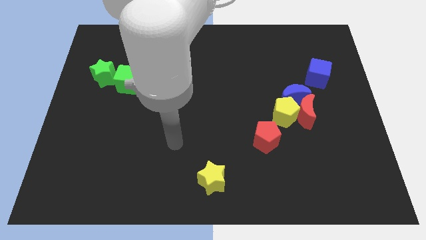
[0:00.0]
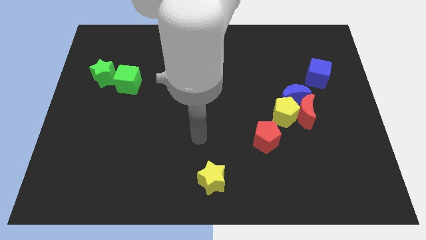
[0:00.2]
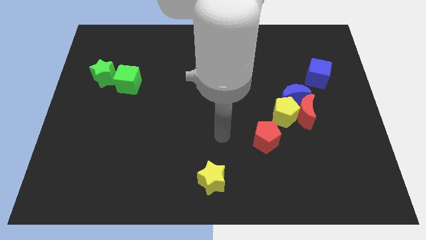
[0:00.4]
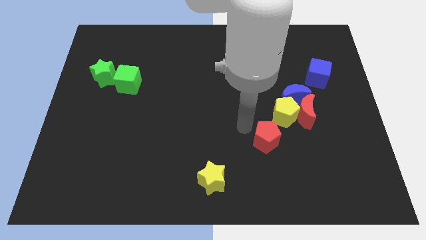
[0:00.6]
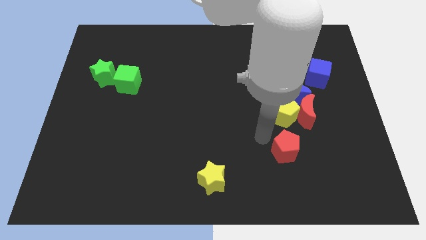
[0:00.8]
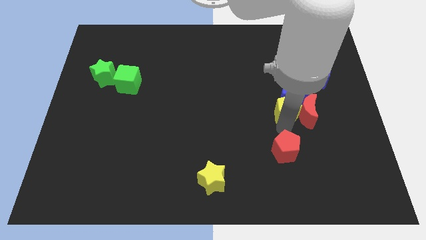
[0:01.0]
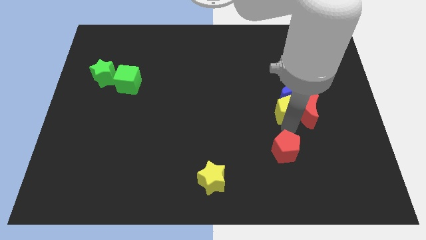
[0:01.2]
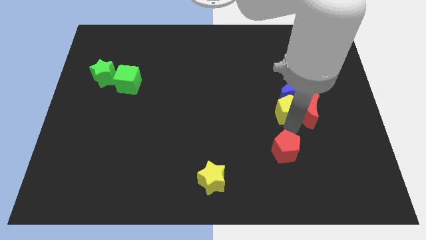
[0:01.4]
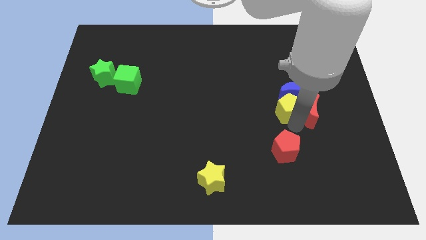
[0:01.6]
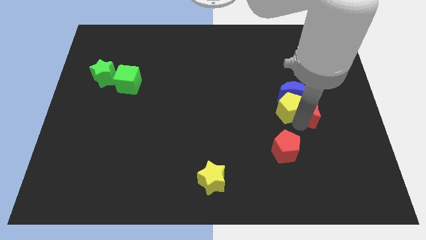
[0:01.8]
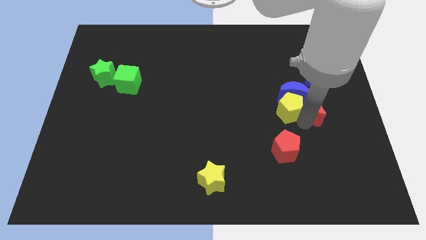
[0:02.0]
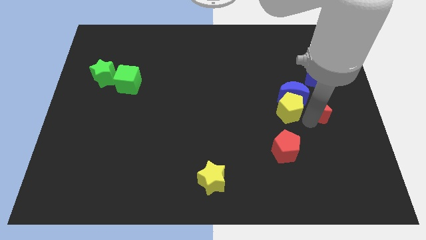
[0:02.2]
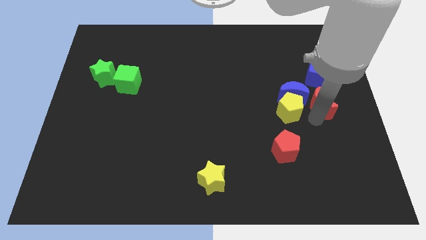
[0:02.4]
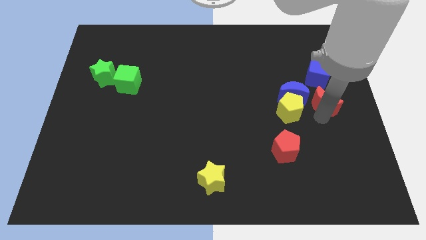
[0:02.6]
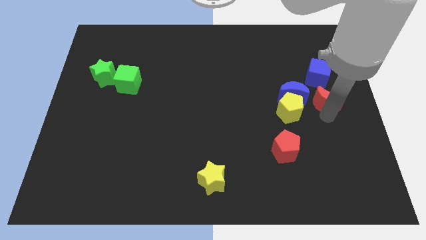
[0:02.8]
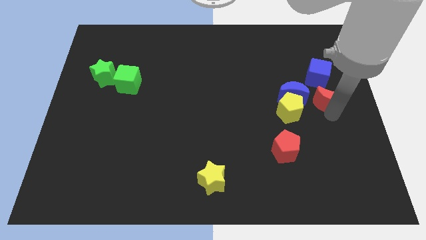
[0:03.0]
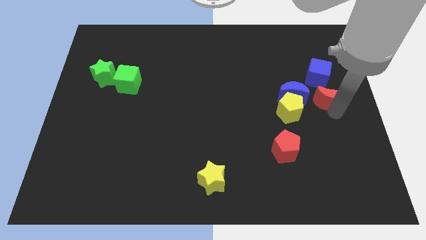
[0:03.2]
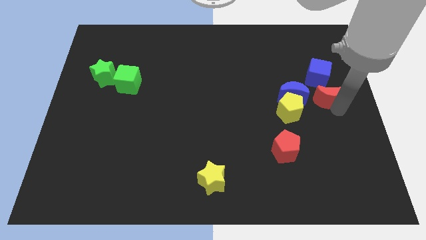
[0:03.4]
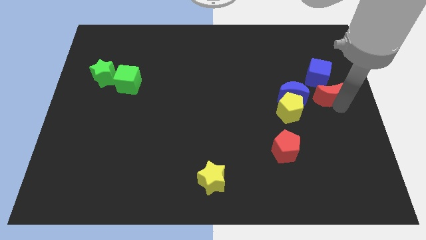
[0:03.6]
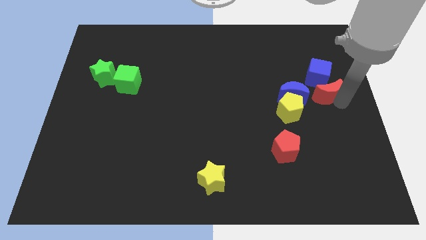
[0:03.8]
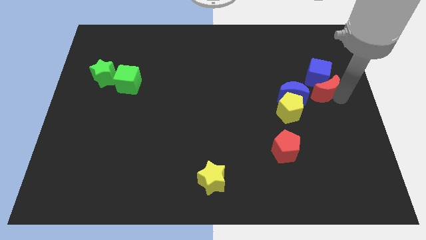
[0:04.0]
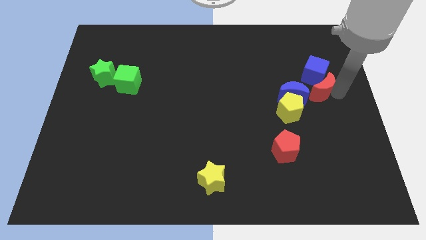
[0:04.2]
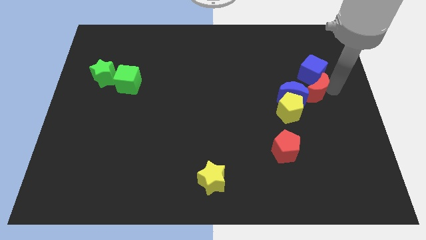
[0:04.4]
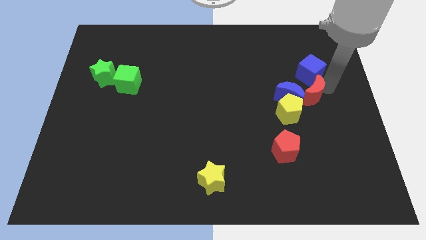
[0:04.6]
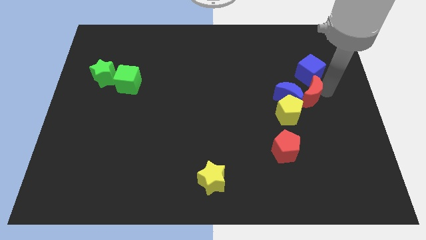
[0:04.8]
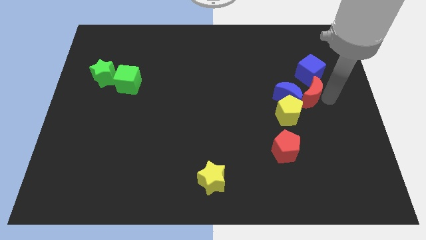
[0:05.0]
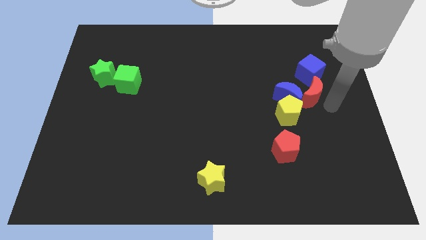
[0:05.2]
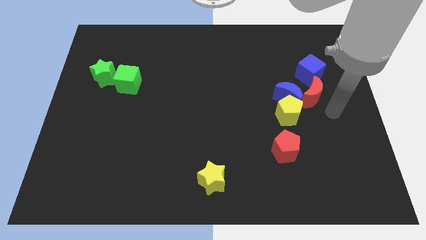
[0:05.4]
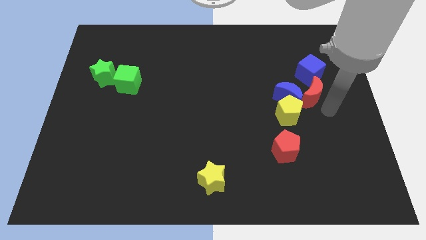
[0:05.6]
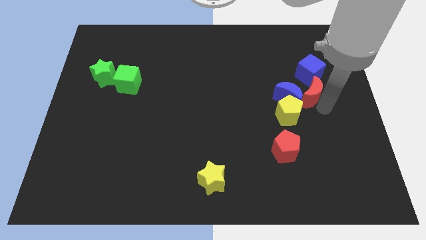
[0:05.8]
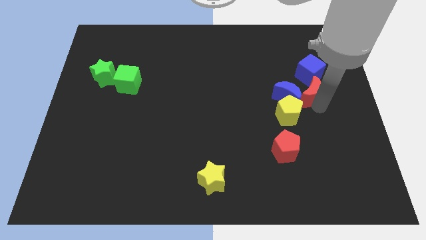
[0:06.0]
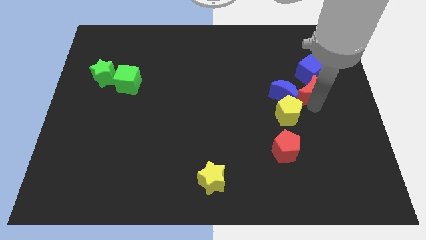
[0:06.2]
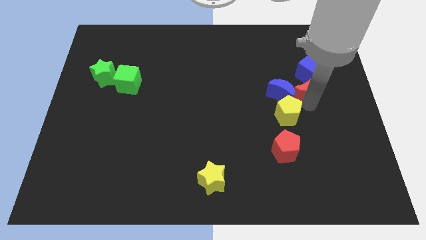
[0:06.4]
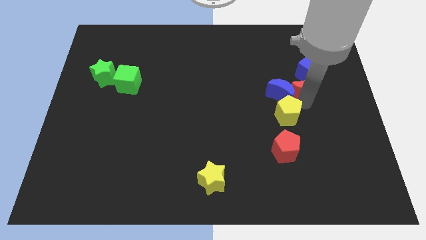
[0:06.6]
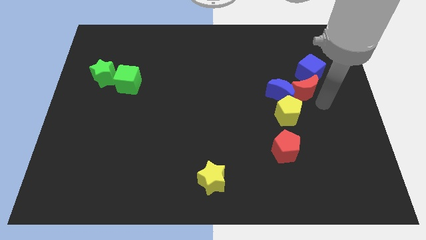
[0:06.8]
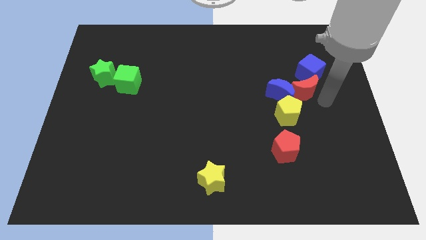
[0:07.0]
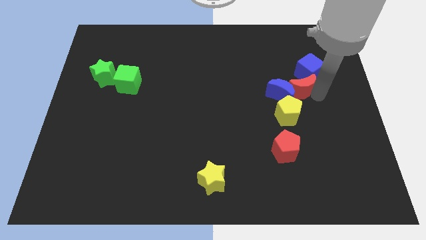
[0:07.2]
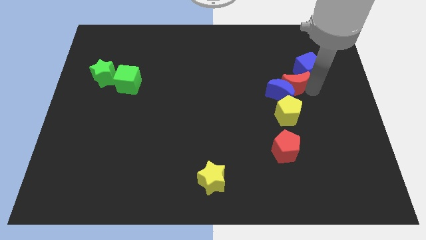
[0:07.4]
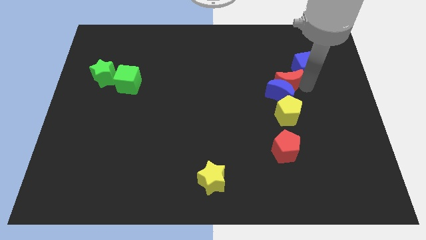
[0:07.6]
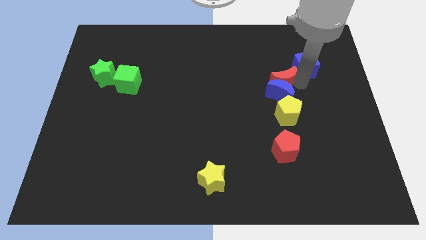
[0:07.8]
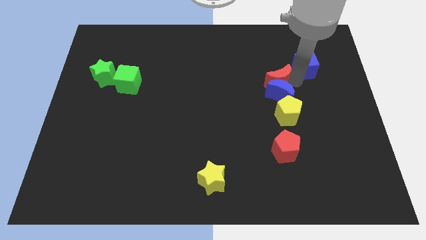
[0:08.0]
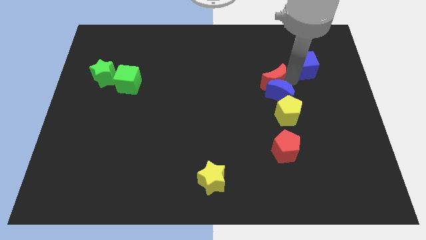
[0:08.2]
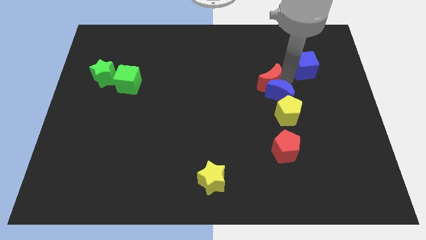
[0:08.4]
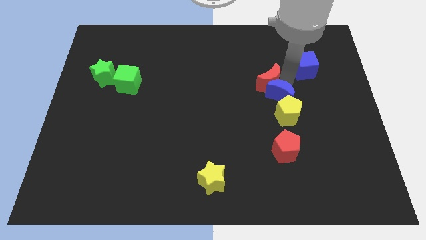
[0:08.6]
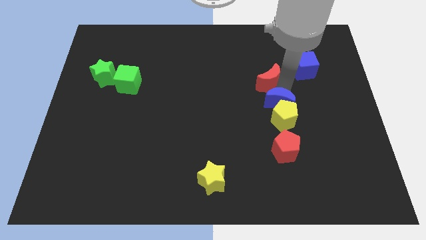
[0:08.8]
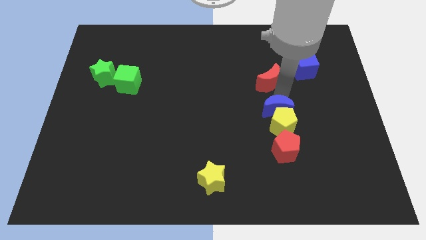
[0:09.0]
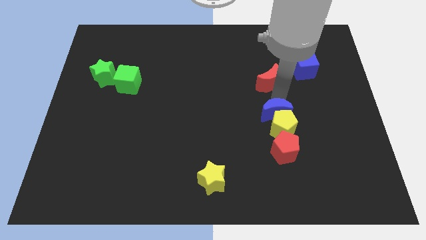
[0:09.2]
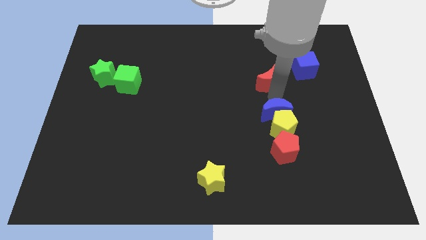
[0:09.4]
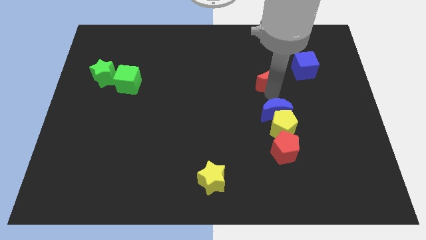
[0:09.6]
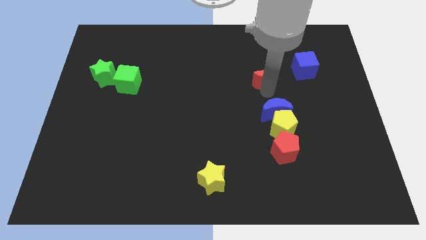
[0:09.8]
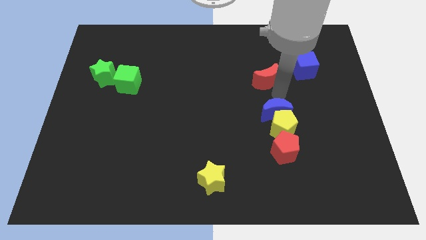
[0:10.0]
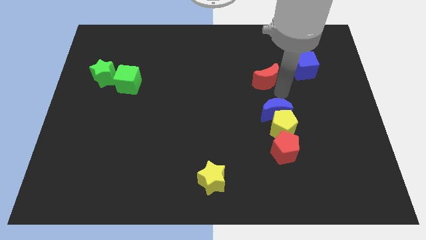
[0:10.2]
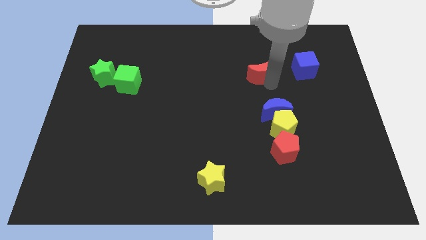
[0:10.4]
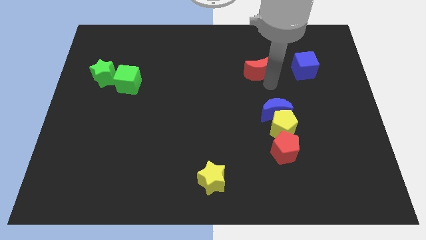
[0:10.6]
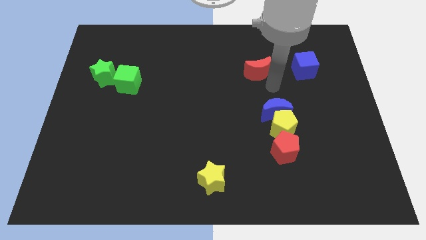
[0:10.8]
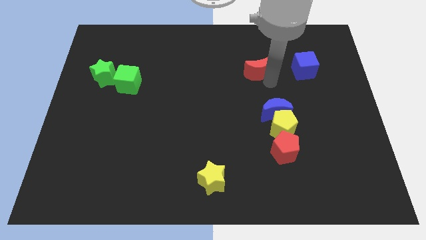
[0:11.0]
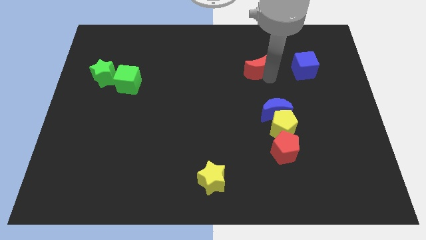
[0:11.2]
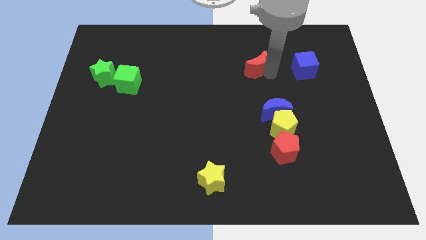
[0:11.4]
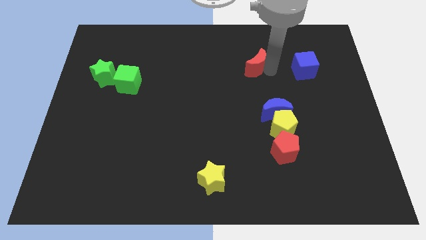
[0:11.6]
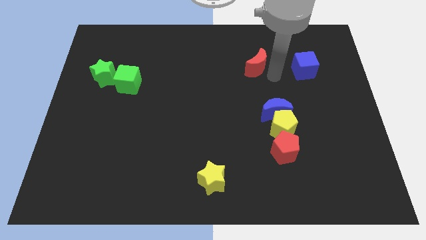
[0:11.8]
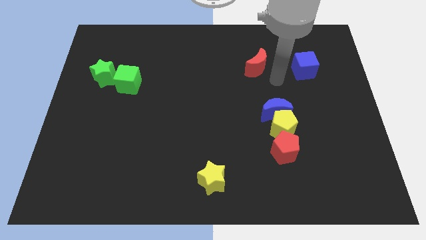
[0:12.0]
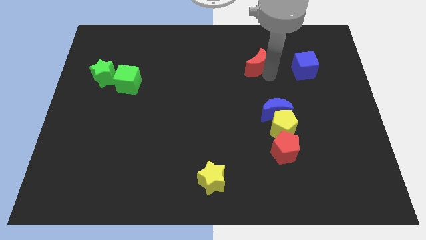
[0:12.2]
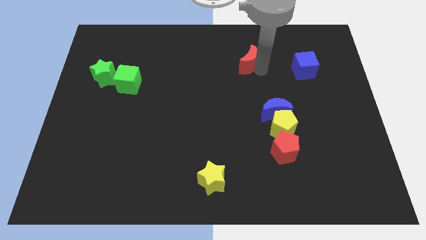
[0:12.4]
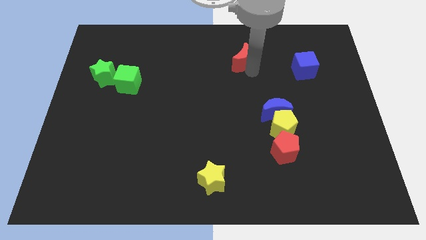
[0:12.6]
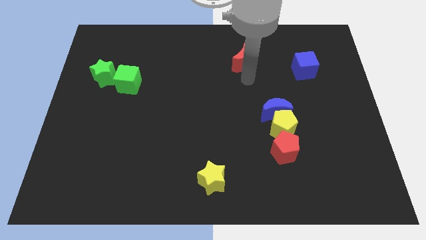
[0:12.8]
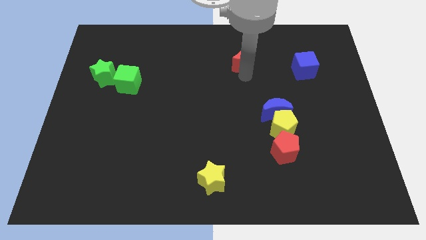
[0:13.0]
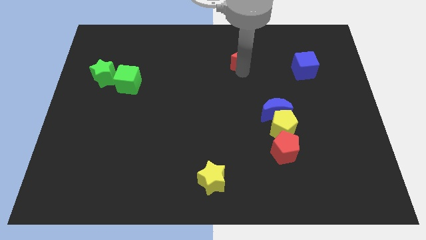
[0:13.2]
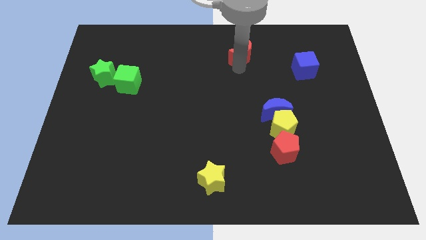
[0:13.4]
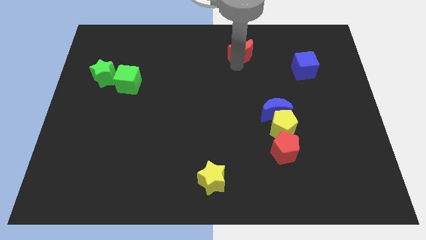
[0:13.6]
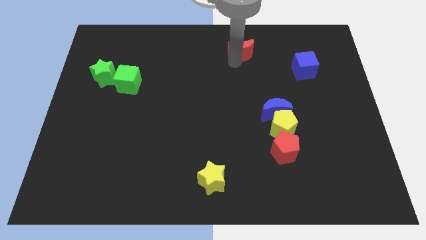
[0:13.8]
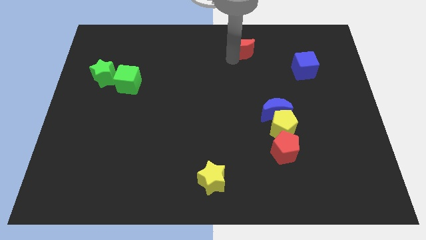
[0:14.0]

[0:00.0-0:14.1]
slide the red moon to the top
